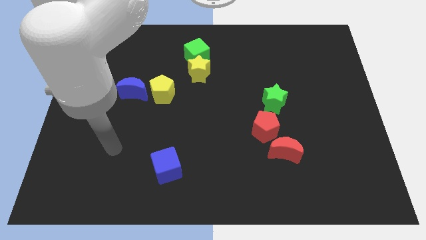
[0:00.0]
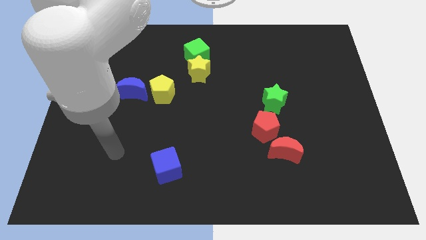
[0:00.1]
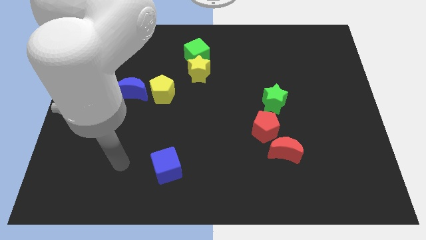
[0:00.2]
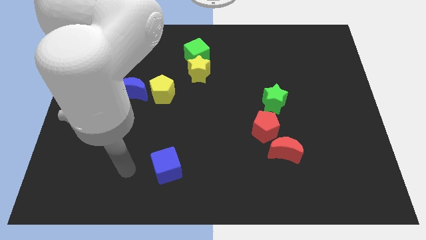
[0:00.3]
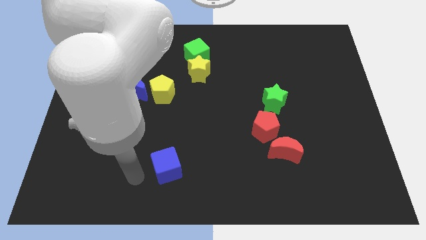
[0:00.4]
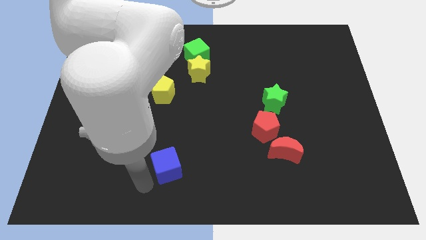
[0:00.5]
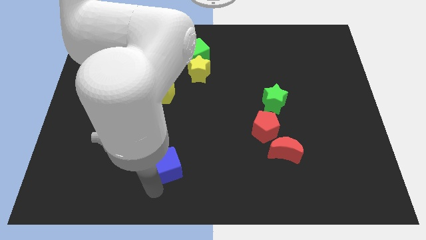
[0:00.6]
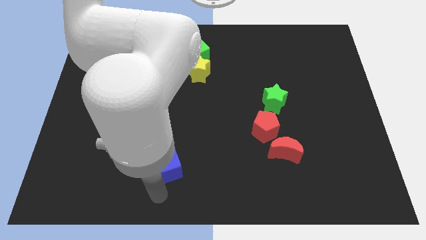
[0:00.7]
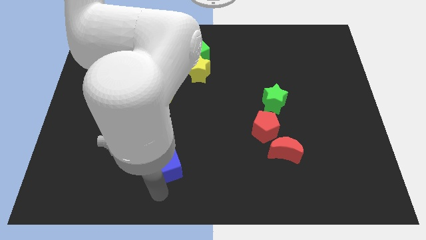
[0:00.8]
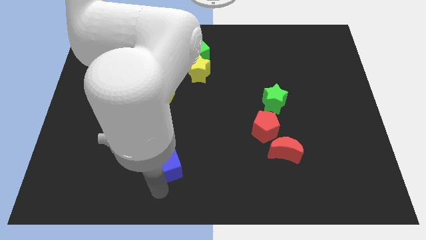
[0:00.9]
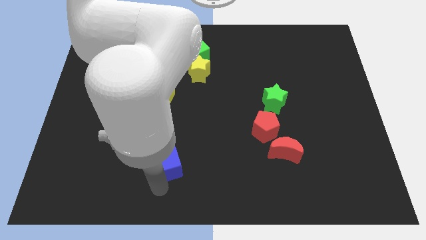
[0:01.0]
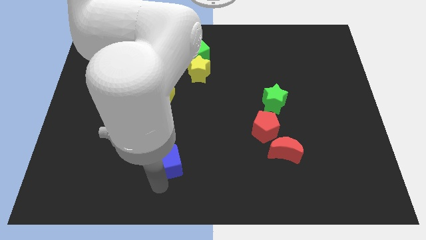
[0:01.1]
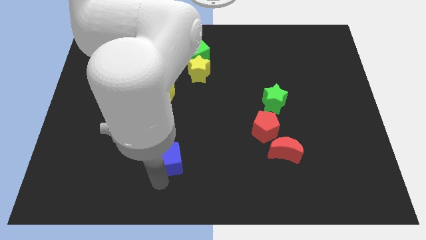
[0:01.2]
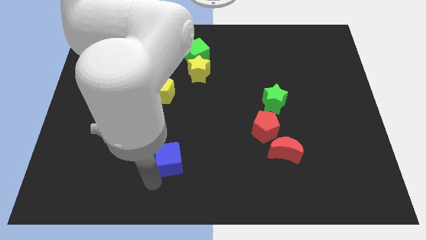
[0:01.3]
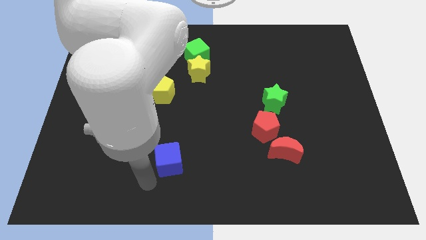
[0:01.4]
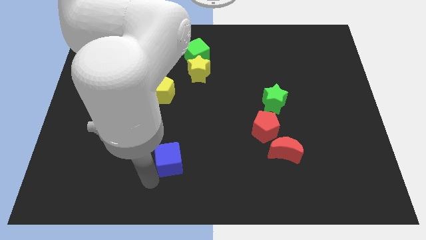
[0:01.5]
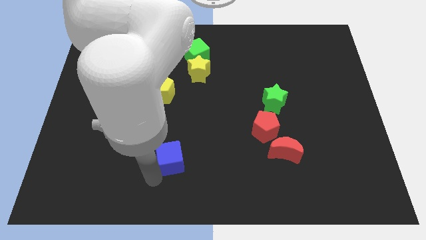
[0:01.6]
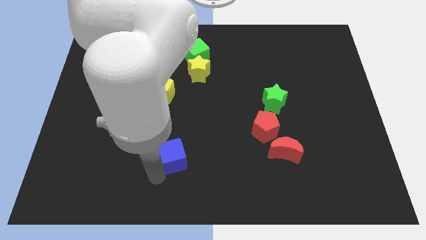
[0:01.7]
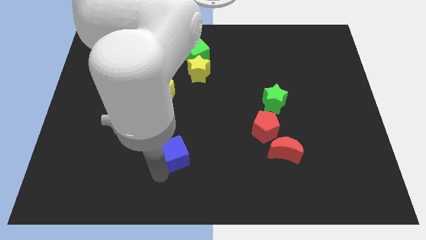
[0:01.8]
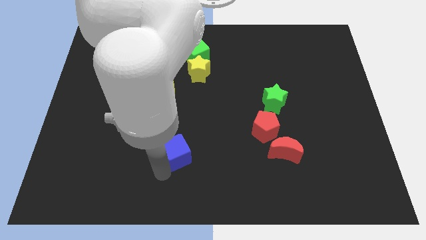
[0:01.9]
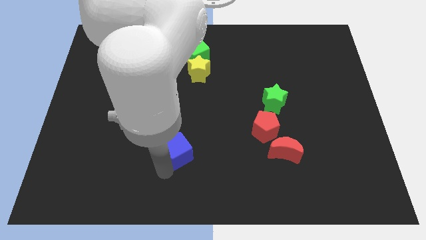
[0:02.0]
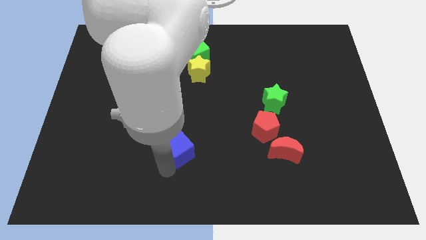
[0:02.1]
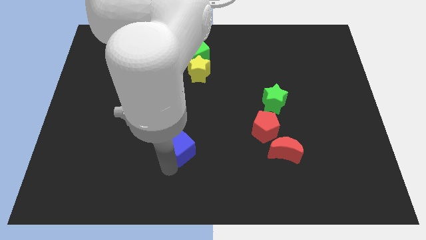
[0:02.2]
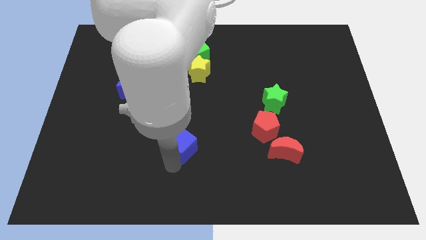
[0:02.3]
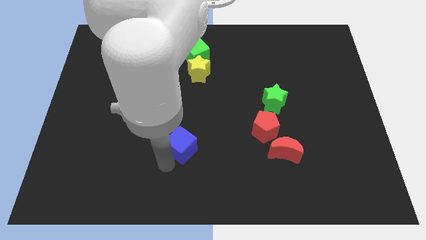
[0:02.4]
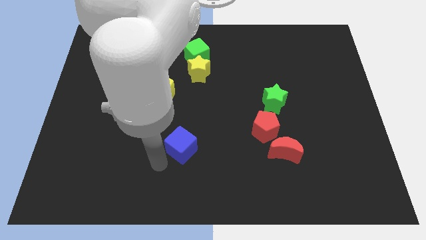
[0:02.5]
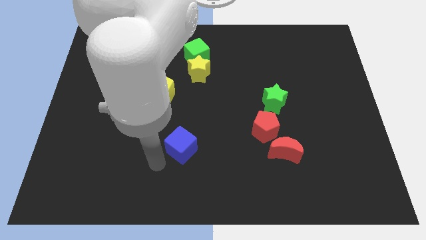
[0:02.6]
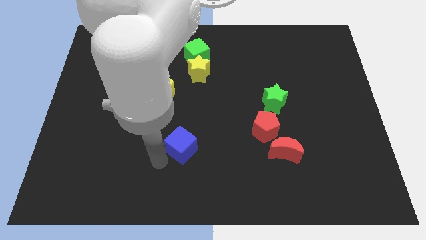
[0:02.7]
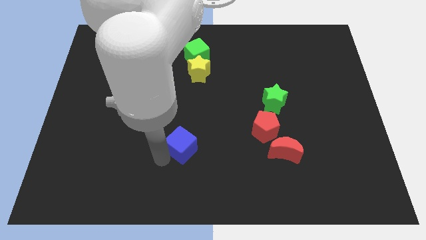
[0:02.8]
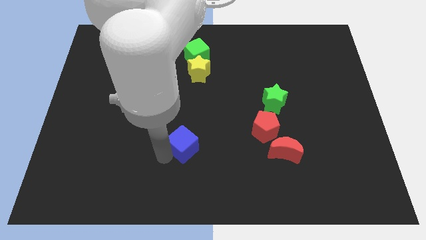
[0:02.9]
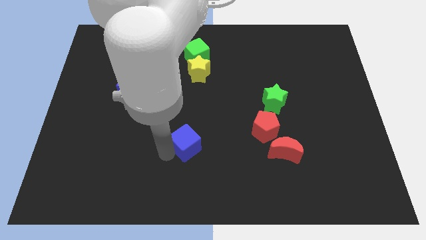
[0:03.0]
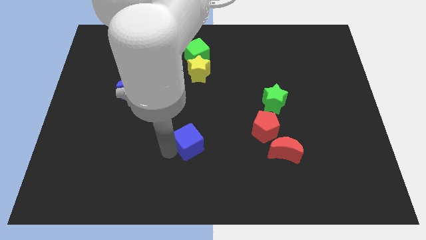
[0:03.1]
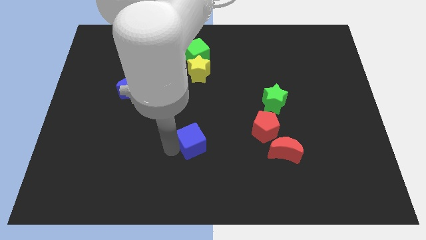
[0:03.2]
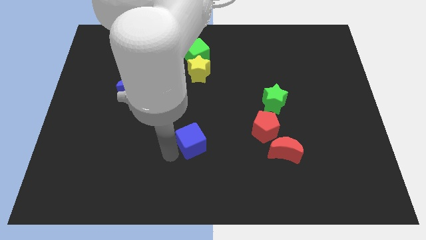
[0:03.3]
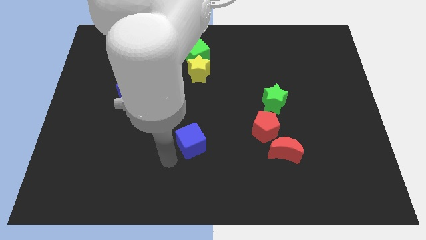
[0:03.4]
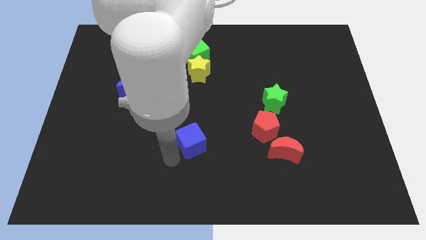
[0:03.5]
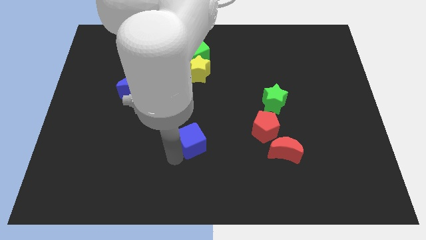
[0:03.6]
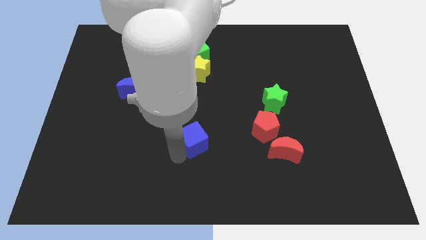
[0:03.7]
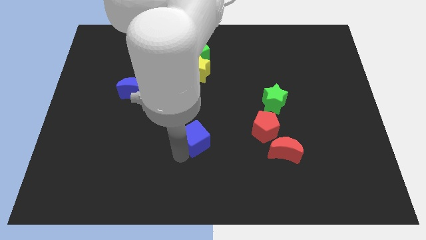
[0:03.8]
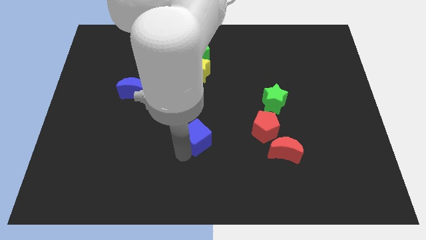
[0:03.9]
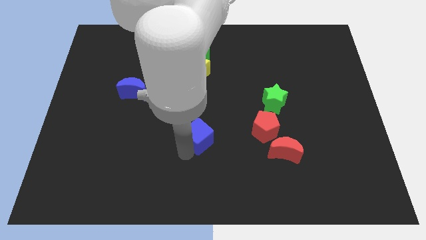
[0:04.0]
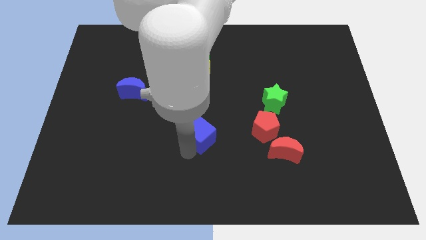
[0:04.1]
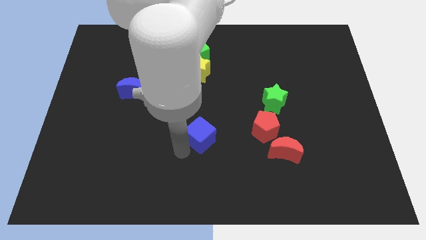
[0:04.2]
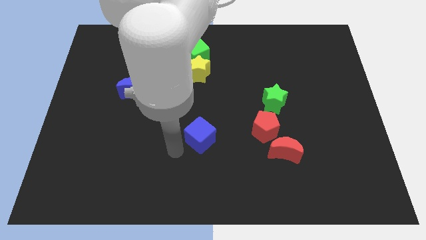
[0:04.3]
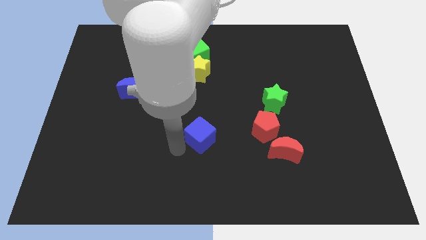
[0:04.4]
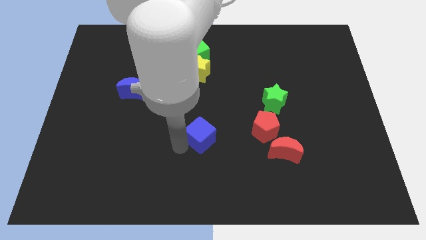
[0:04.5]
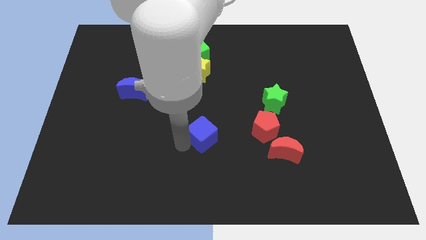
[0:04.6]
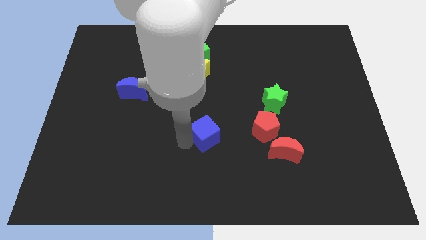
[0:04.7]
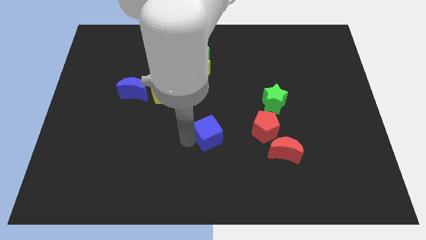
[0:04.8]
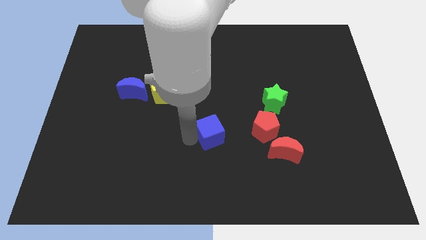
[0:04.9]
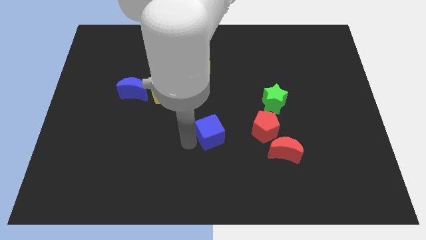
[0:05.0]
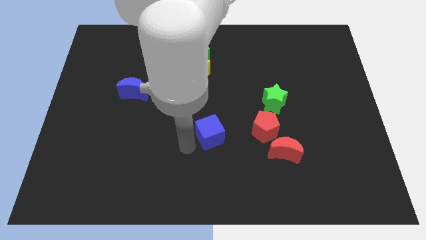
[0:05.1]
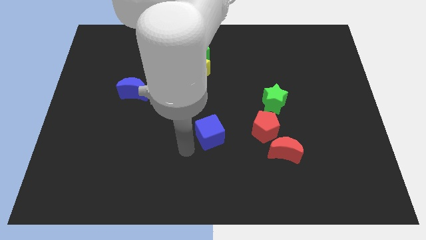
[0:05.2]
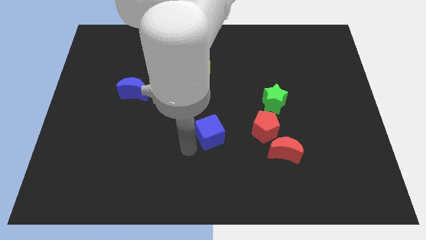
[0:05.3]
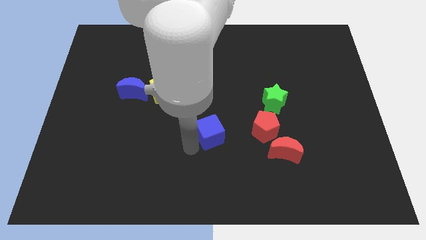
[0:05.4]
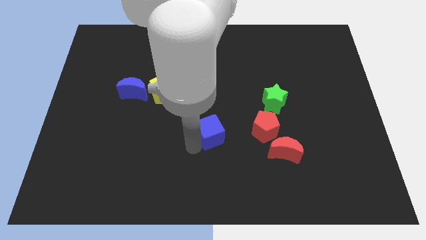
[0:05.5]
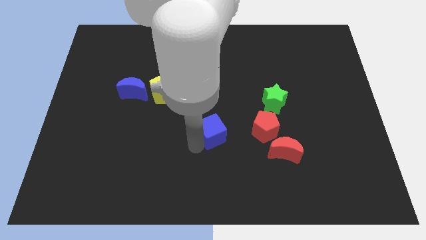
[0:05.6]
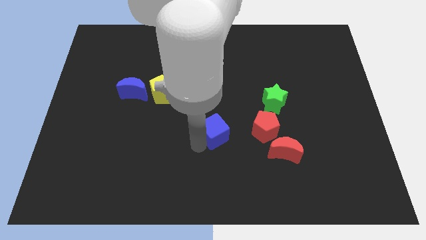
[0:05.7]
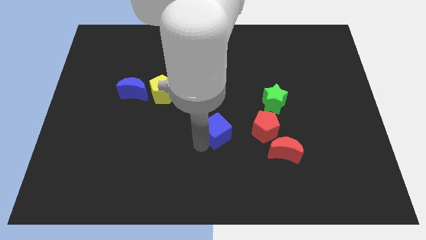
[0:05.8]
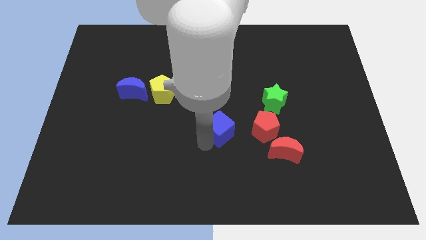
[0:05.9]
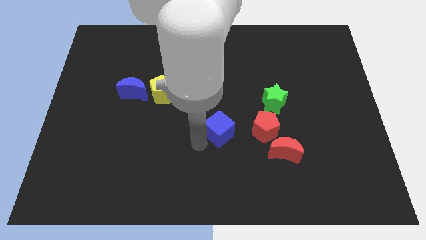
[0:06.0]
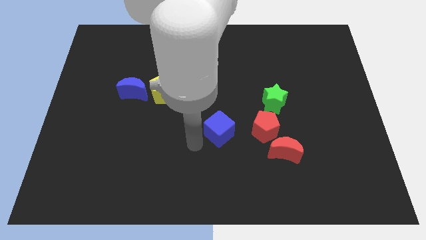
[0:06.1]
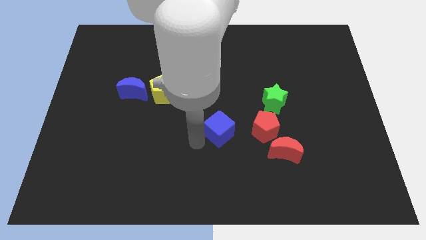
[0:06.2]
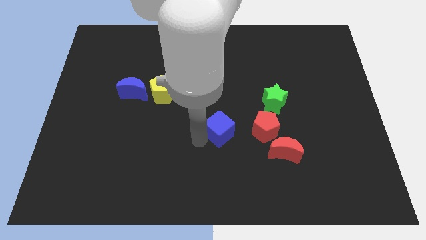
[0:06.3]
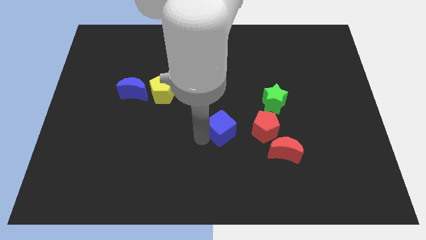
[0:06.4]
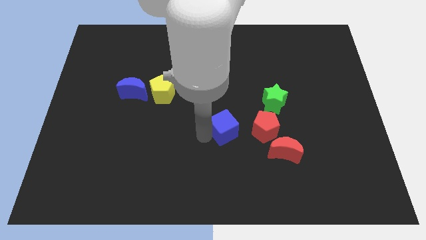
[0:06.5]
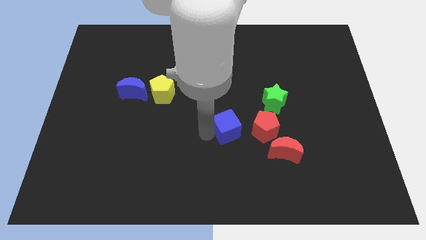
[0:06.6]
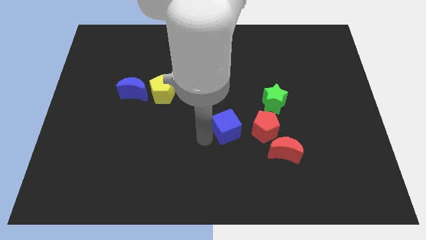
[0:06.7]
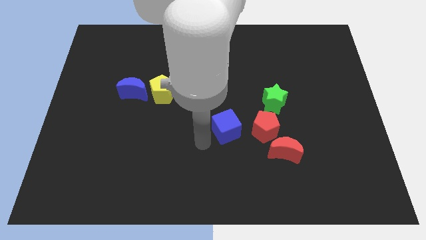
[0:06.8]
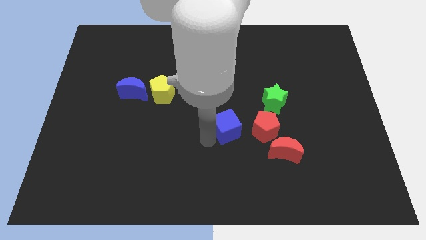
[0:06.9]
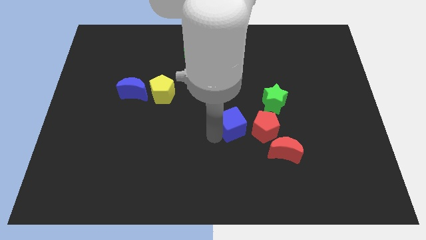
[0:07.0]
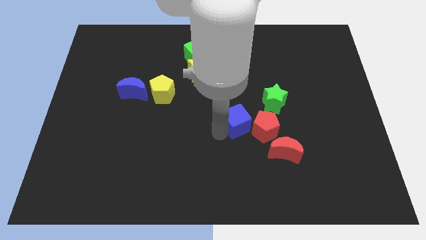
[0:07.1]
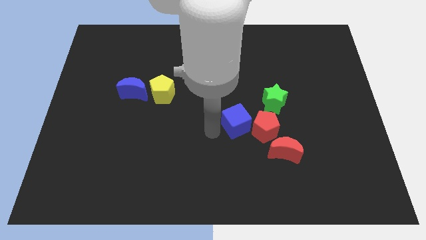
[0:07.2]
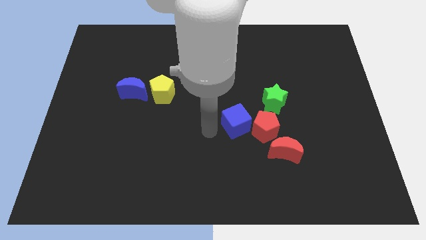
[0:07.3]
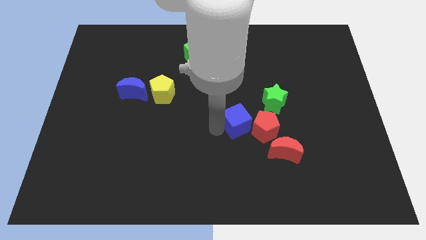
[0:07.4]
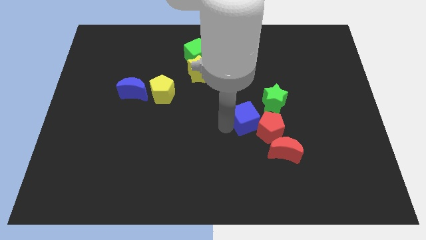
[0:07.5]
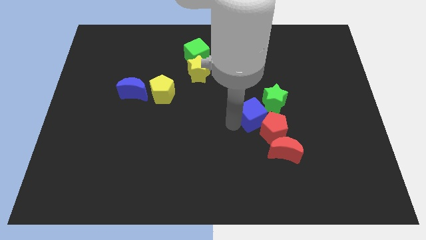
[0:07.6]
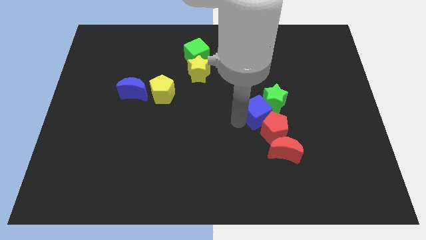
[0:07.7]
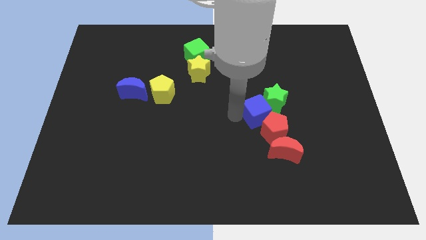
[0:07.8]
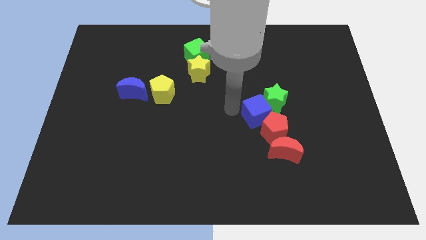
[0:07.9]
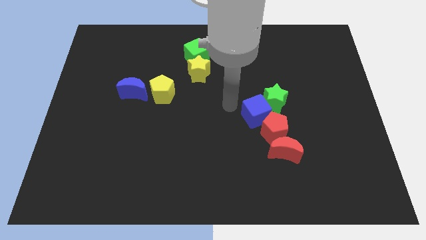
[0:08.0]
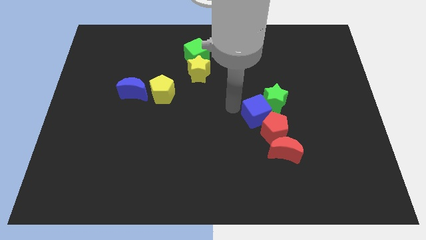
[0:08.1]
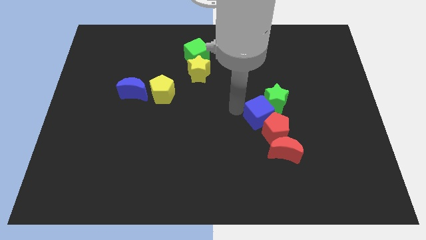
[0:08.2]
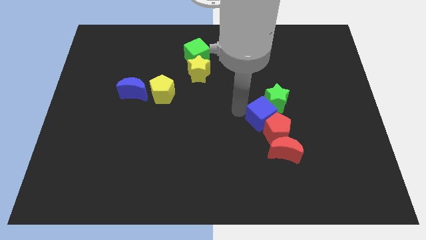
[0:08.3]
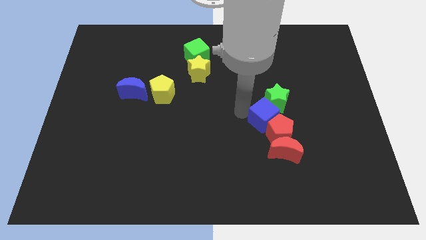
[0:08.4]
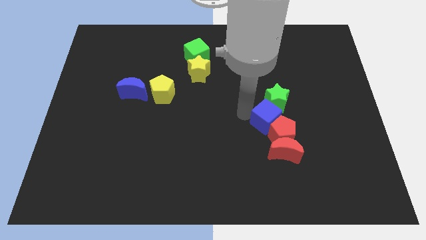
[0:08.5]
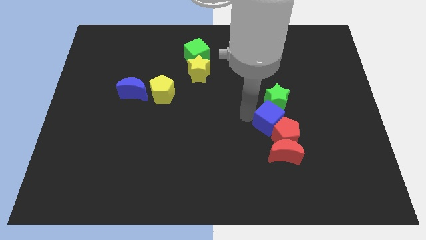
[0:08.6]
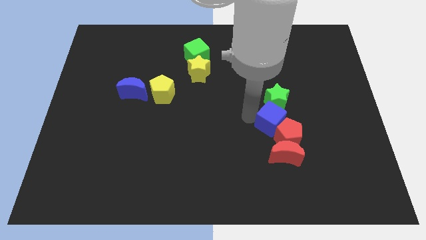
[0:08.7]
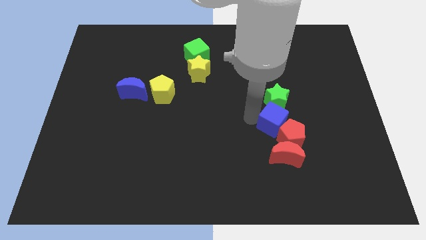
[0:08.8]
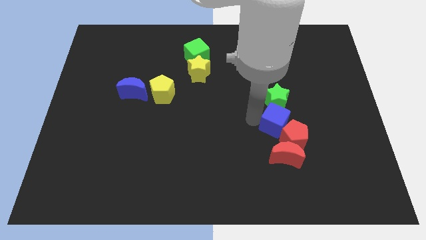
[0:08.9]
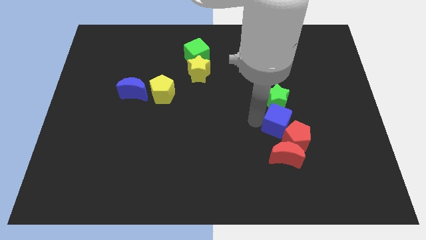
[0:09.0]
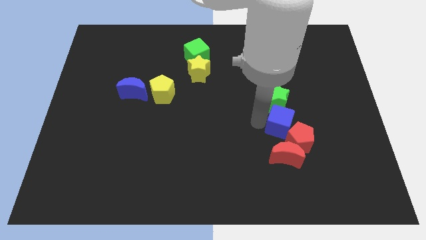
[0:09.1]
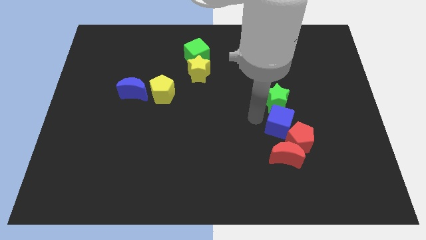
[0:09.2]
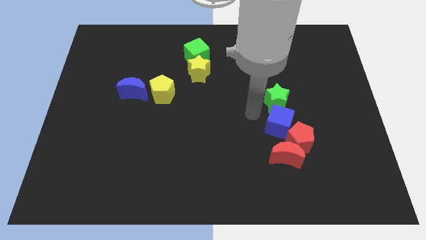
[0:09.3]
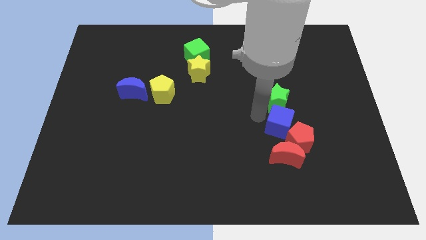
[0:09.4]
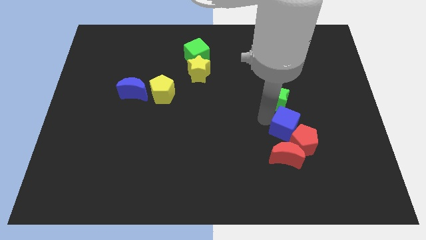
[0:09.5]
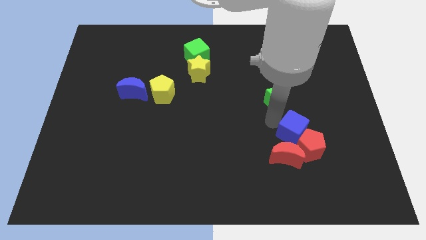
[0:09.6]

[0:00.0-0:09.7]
put the blue cube diagonally up and to the right of the red moon
